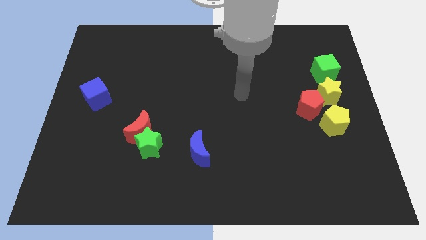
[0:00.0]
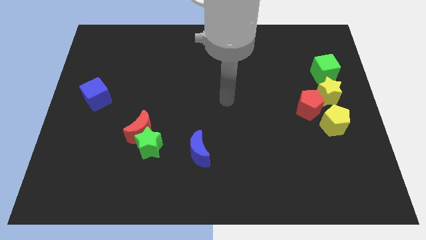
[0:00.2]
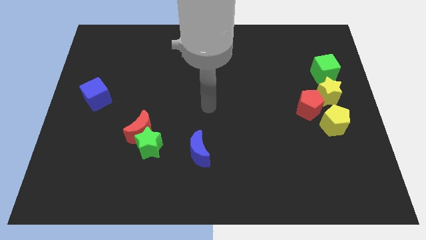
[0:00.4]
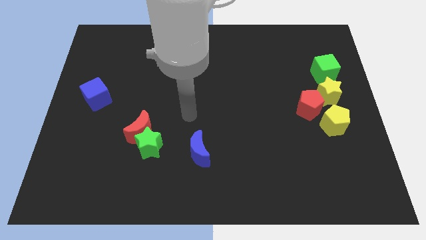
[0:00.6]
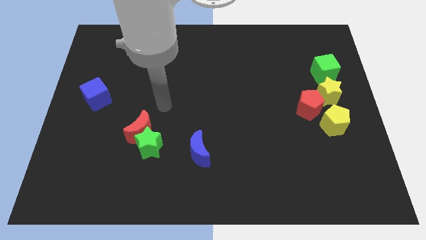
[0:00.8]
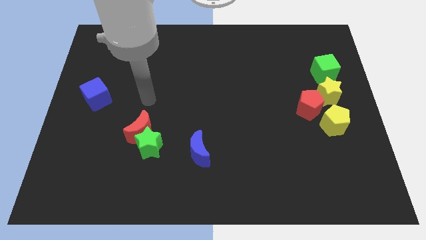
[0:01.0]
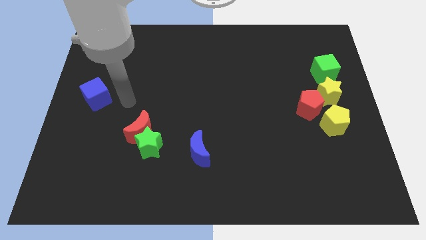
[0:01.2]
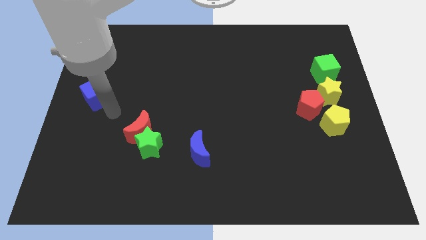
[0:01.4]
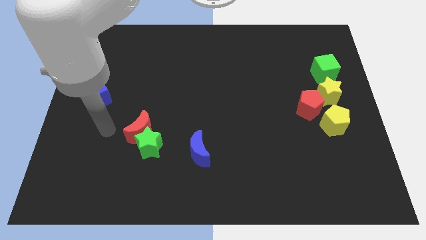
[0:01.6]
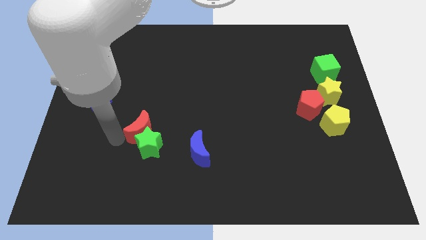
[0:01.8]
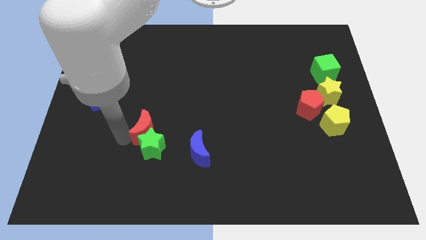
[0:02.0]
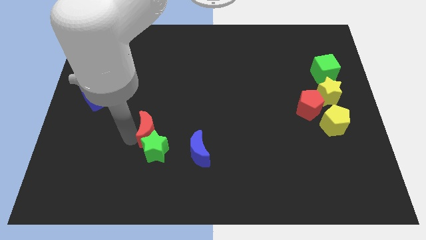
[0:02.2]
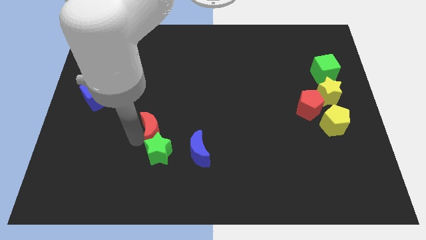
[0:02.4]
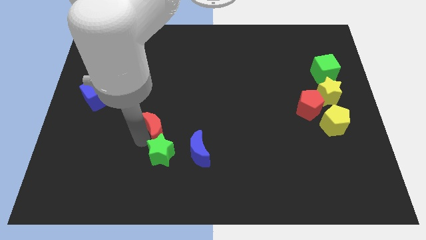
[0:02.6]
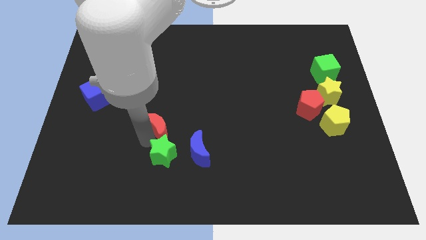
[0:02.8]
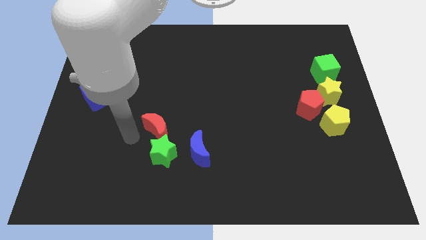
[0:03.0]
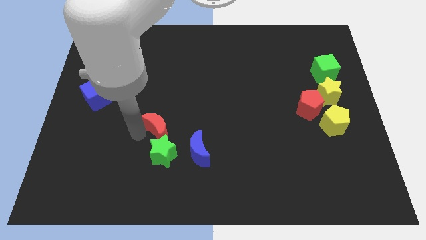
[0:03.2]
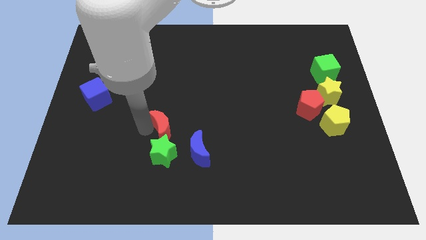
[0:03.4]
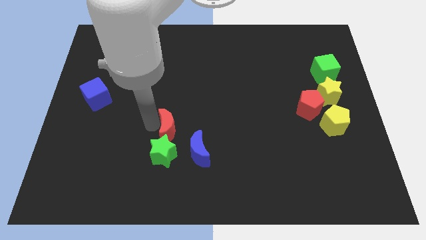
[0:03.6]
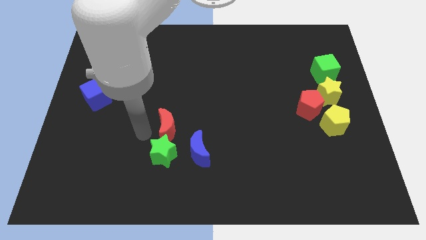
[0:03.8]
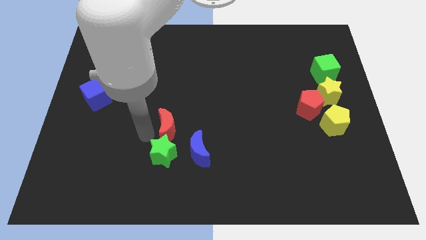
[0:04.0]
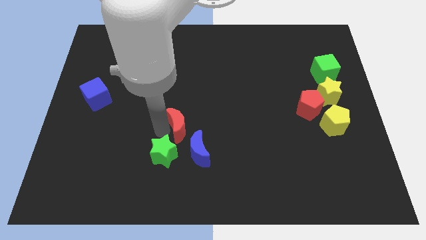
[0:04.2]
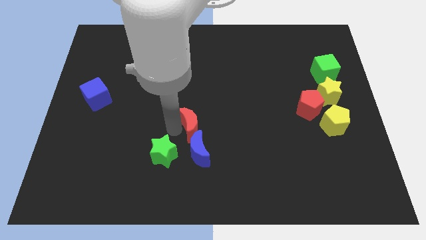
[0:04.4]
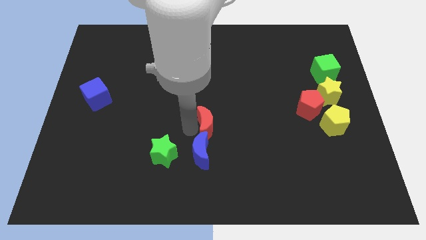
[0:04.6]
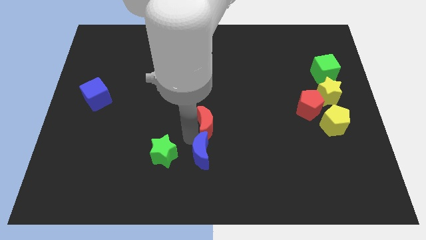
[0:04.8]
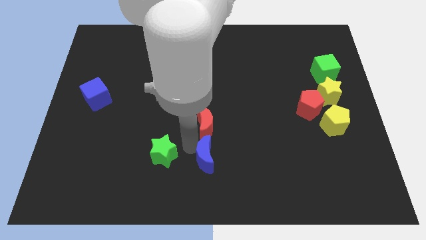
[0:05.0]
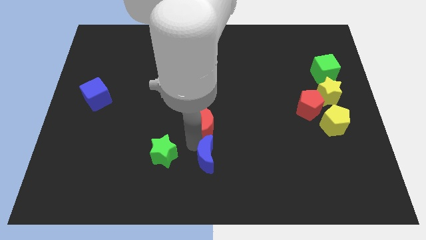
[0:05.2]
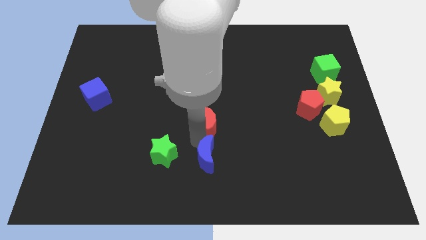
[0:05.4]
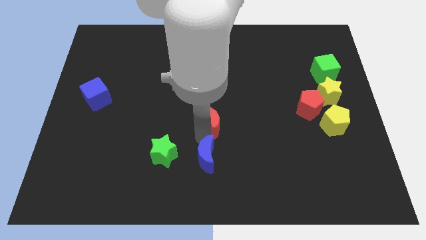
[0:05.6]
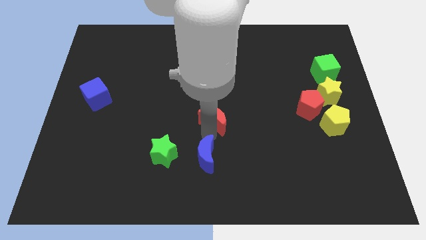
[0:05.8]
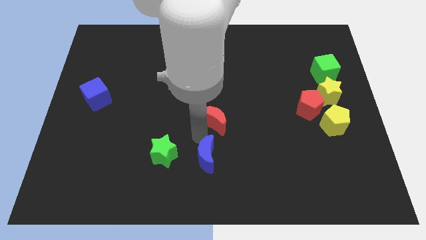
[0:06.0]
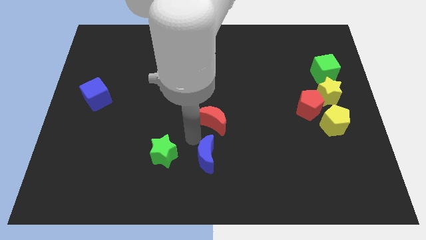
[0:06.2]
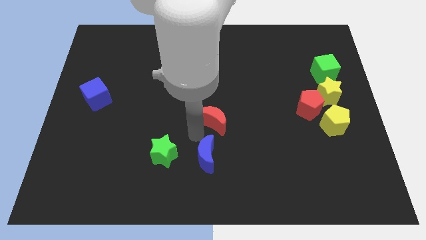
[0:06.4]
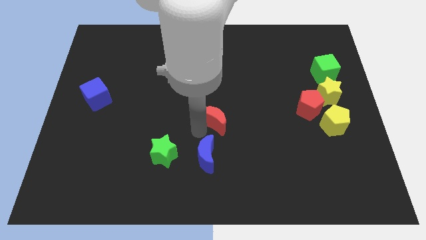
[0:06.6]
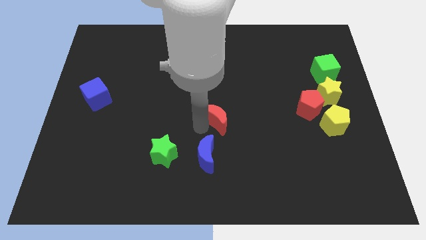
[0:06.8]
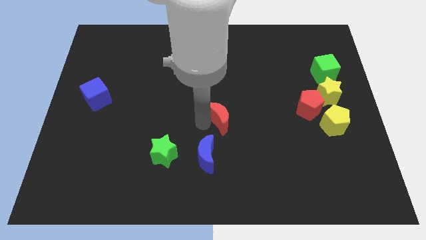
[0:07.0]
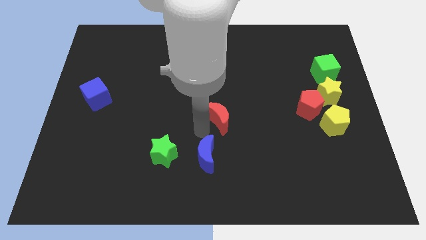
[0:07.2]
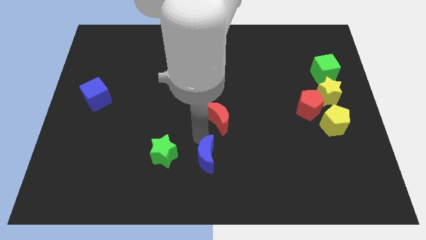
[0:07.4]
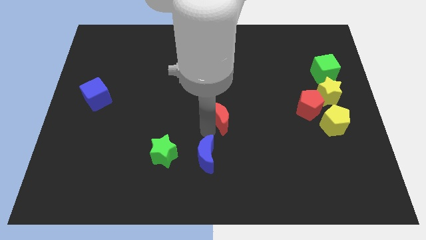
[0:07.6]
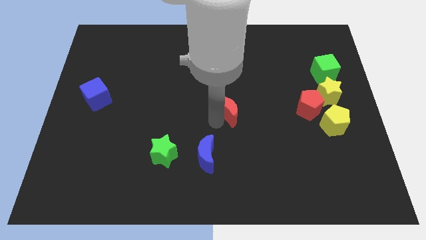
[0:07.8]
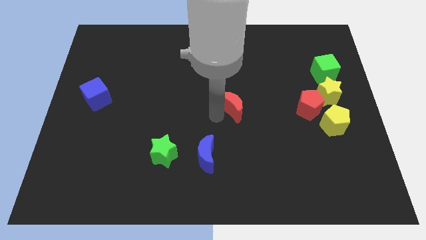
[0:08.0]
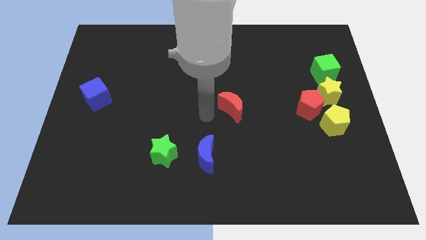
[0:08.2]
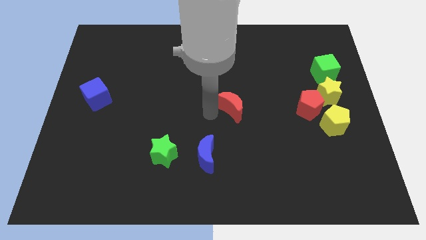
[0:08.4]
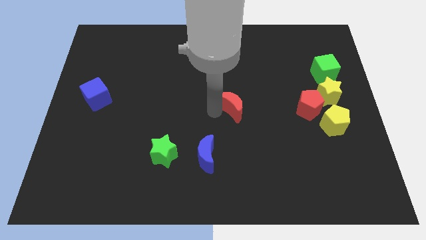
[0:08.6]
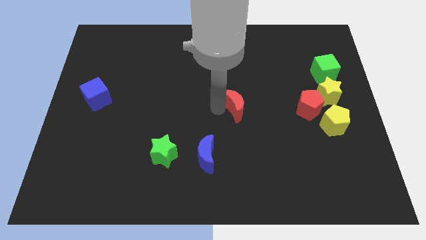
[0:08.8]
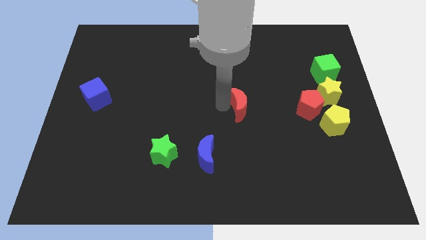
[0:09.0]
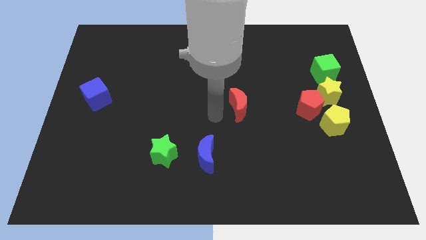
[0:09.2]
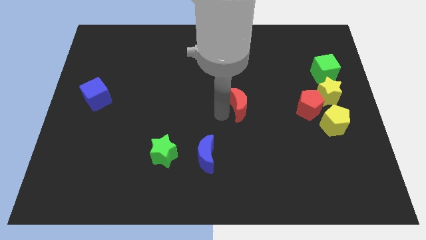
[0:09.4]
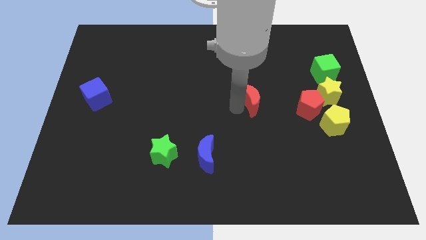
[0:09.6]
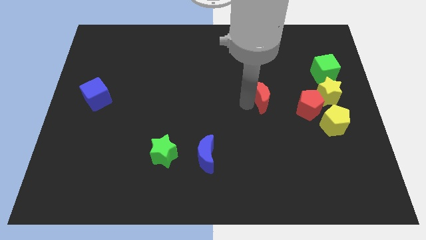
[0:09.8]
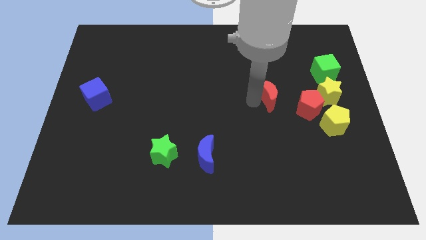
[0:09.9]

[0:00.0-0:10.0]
push the red moon to the top left side of the red pentagon

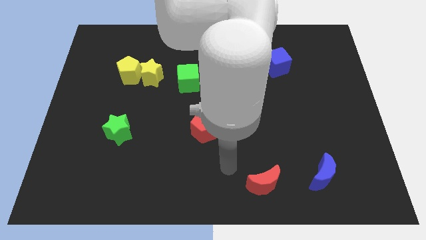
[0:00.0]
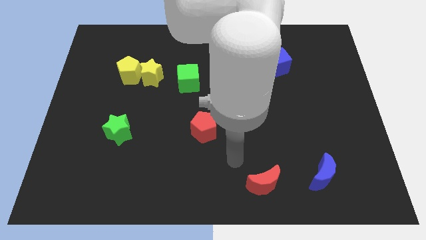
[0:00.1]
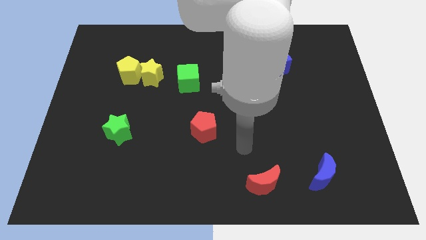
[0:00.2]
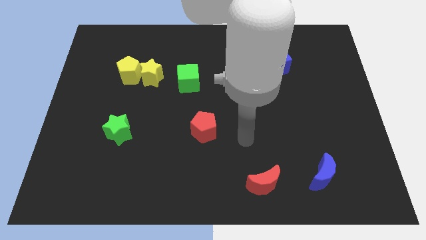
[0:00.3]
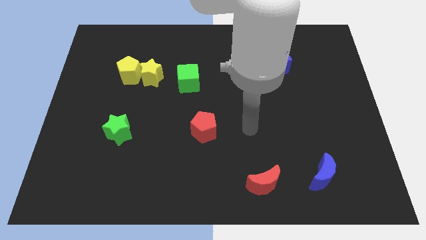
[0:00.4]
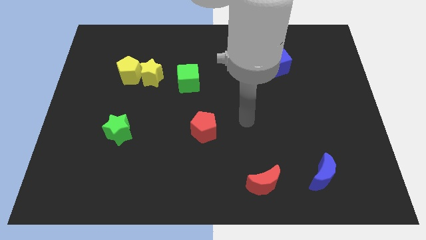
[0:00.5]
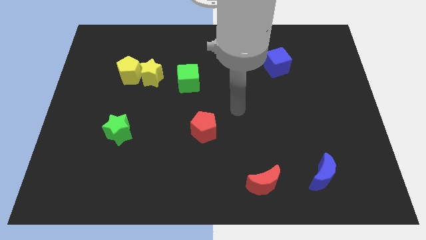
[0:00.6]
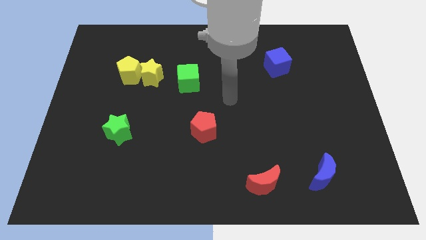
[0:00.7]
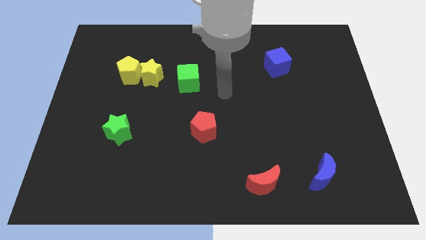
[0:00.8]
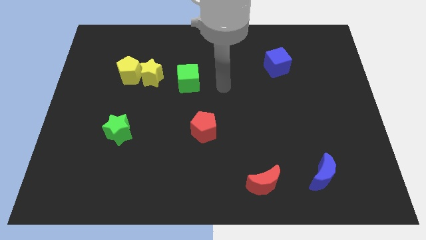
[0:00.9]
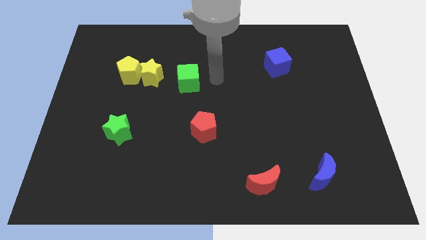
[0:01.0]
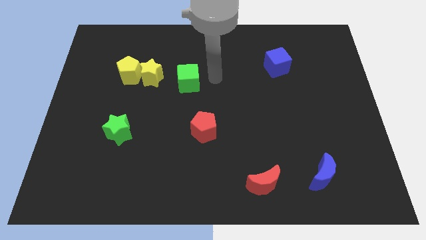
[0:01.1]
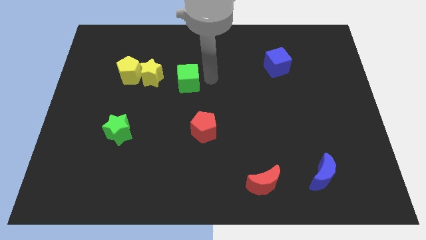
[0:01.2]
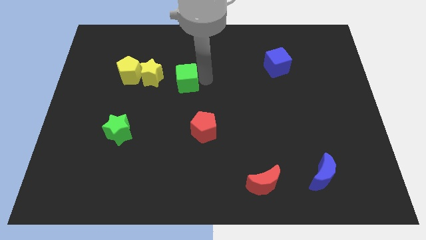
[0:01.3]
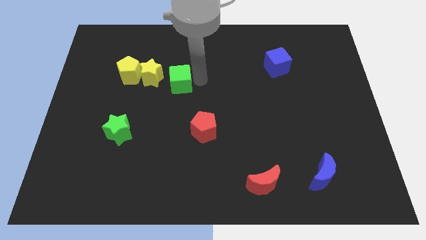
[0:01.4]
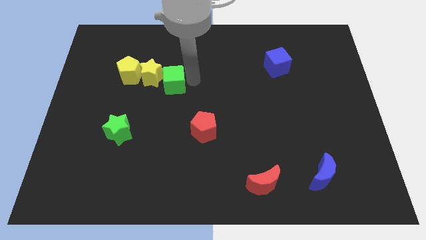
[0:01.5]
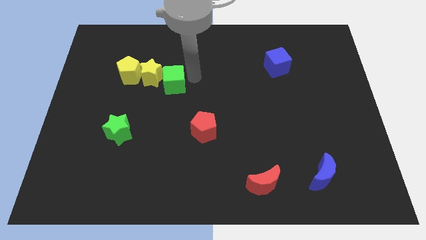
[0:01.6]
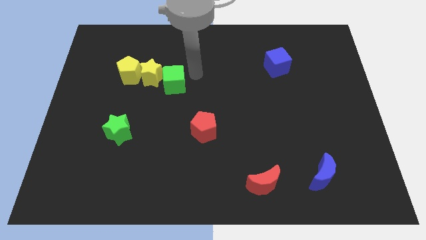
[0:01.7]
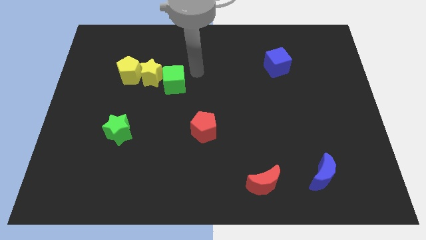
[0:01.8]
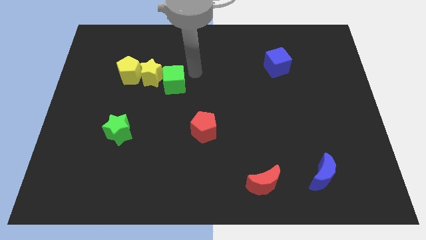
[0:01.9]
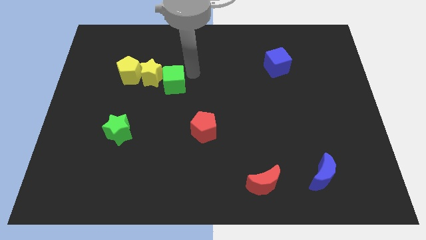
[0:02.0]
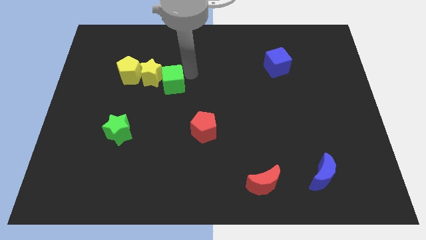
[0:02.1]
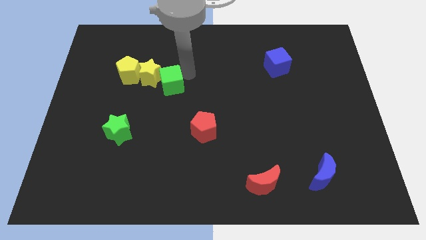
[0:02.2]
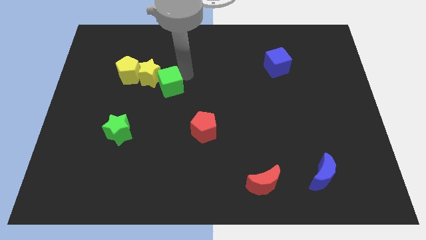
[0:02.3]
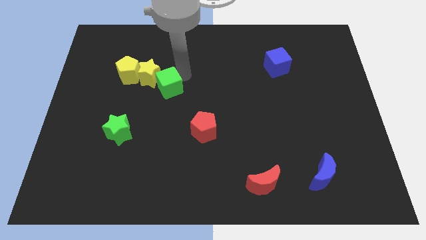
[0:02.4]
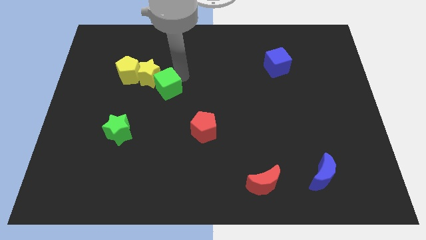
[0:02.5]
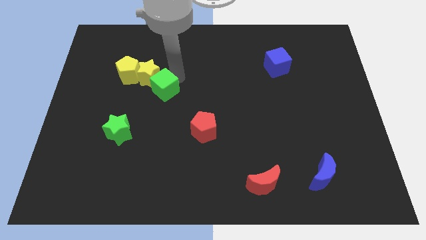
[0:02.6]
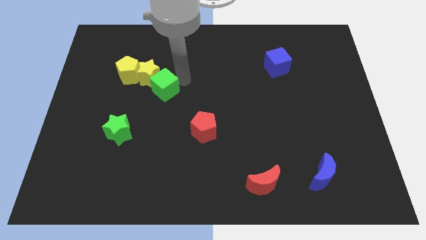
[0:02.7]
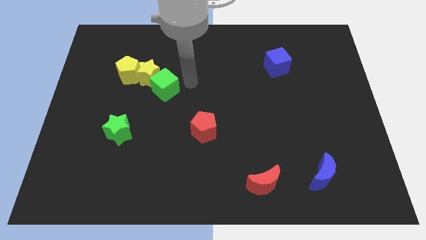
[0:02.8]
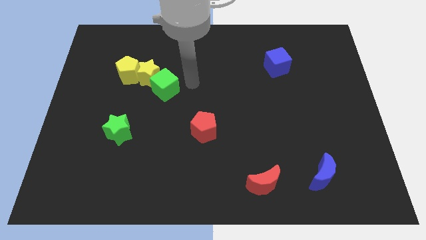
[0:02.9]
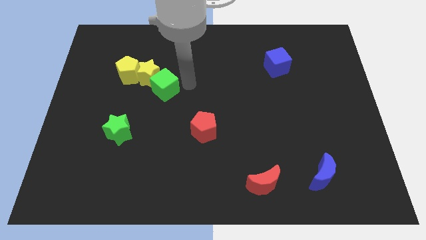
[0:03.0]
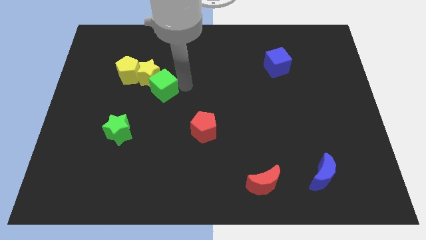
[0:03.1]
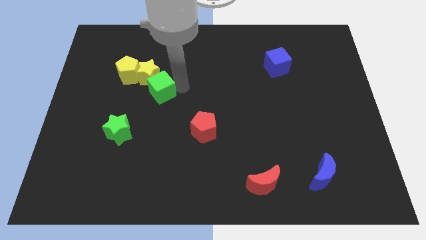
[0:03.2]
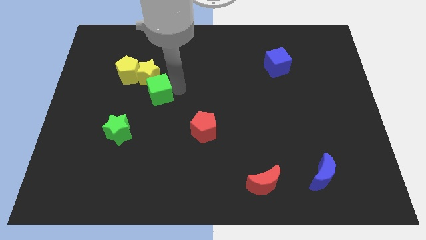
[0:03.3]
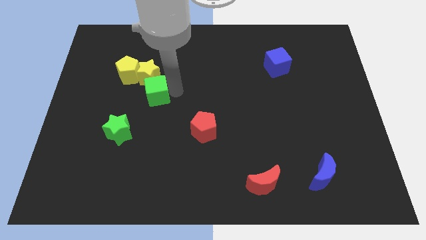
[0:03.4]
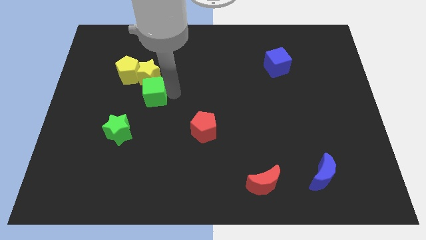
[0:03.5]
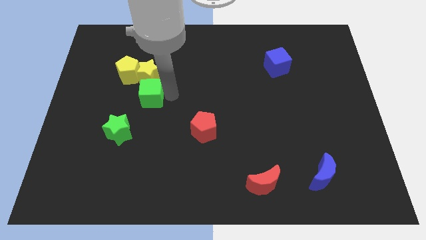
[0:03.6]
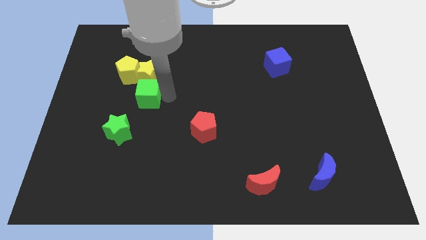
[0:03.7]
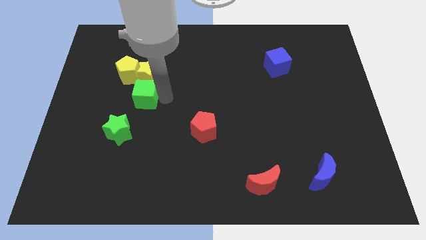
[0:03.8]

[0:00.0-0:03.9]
slide the green cube to the top of the green star
